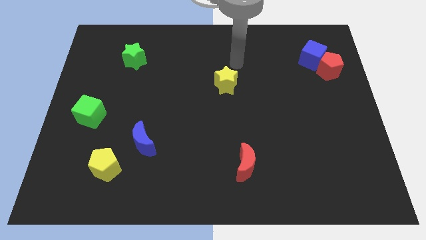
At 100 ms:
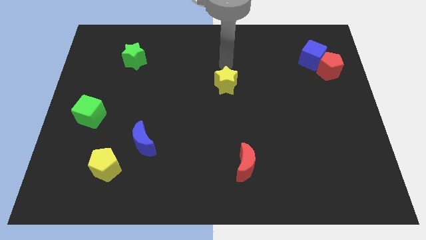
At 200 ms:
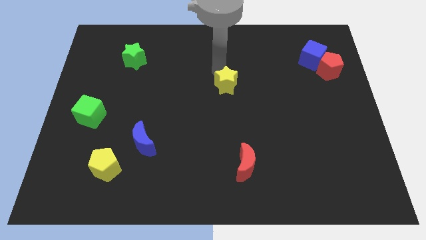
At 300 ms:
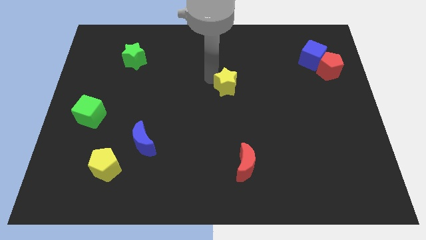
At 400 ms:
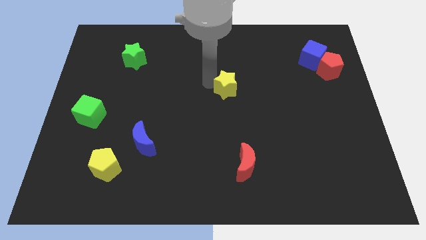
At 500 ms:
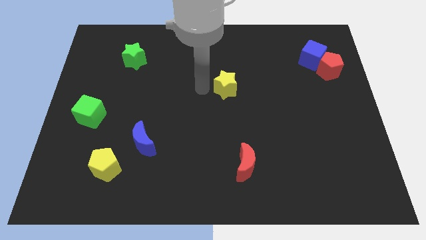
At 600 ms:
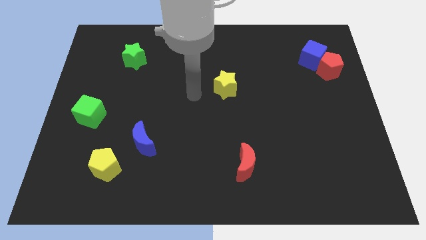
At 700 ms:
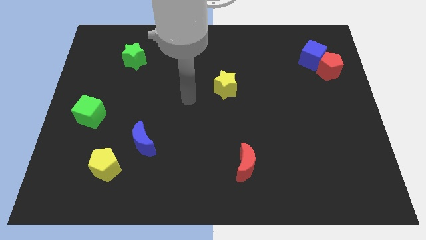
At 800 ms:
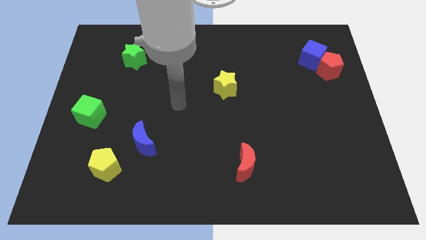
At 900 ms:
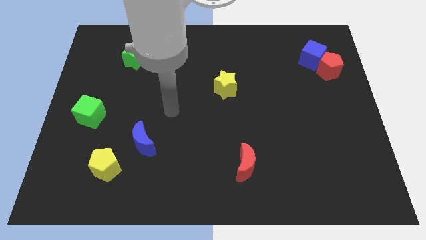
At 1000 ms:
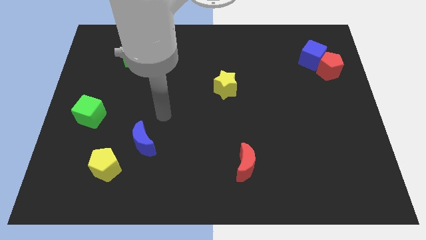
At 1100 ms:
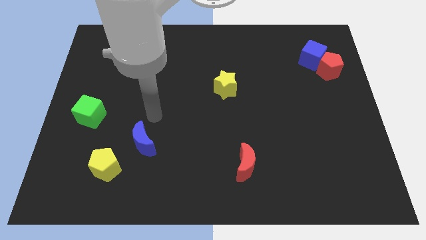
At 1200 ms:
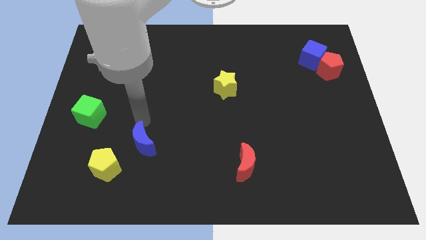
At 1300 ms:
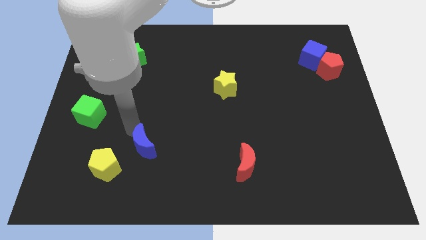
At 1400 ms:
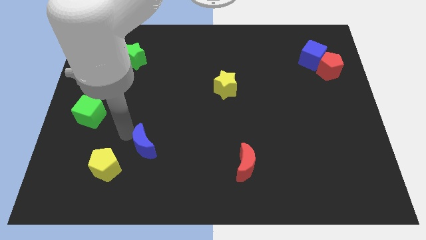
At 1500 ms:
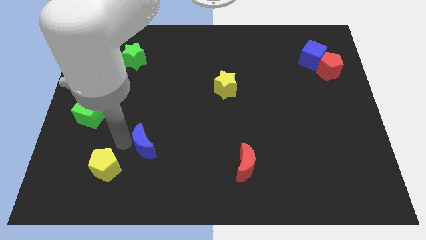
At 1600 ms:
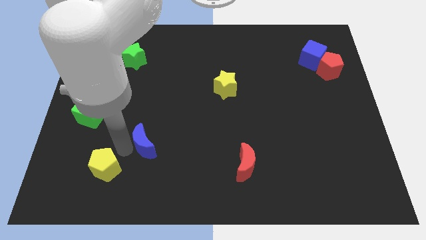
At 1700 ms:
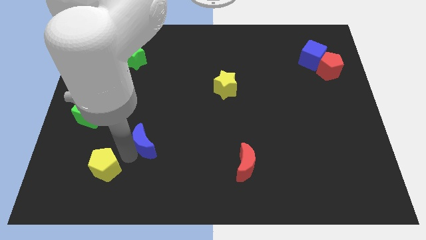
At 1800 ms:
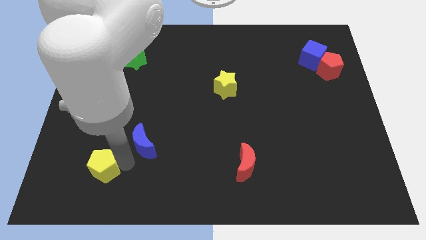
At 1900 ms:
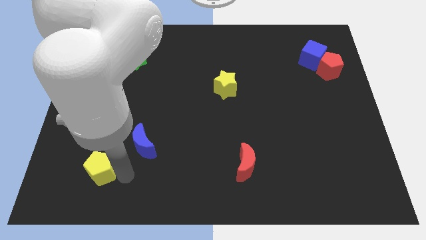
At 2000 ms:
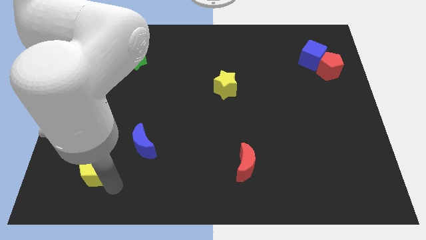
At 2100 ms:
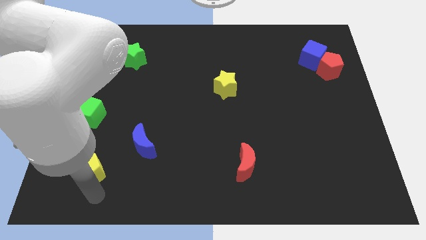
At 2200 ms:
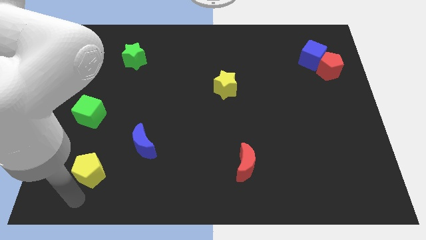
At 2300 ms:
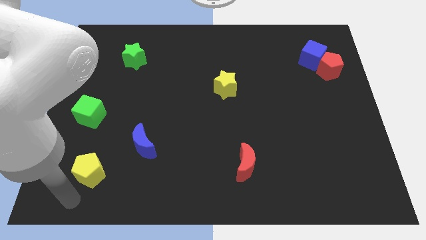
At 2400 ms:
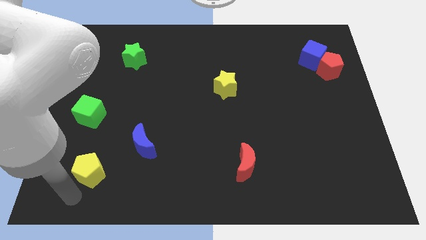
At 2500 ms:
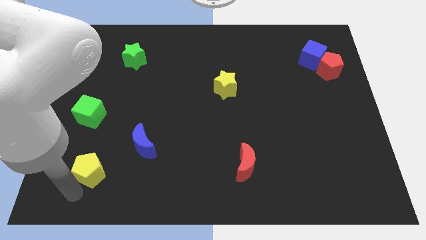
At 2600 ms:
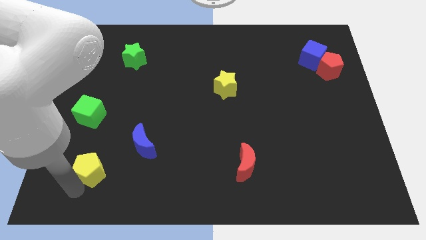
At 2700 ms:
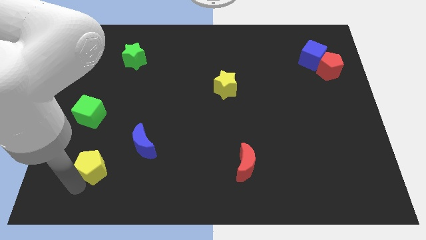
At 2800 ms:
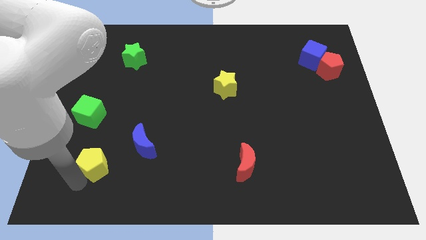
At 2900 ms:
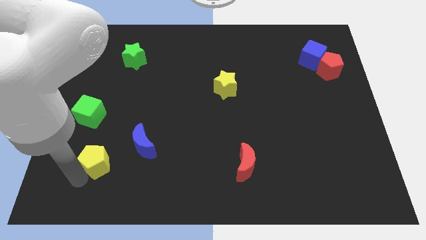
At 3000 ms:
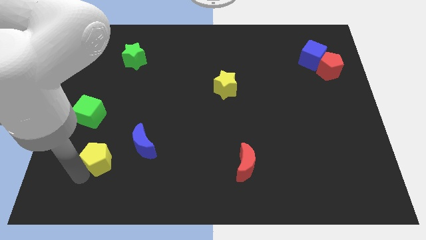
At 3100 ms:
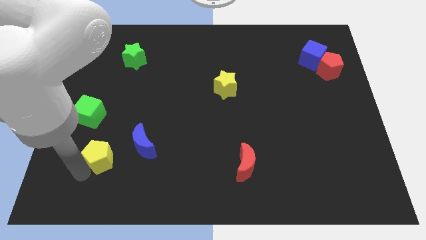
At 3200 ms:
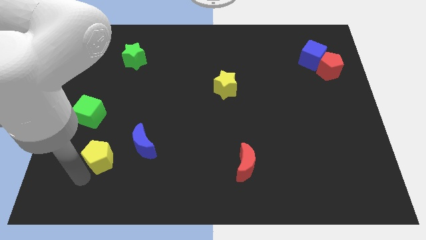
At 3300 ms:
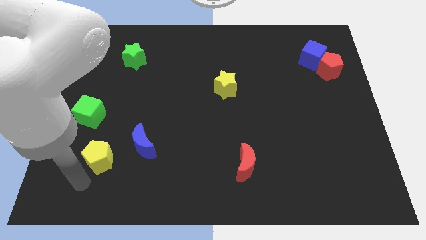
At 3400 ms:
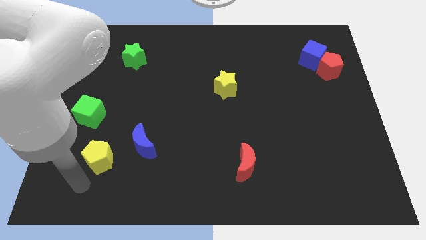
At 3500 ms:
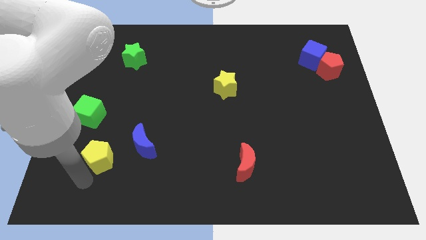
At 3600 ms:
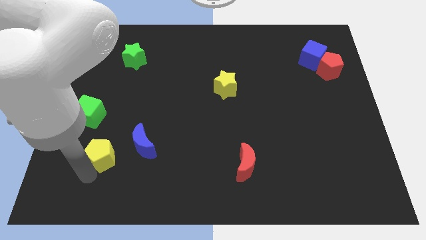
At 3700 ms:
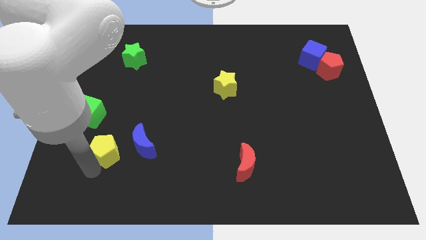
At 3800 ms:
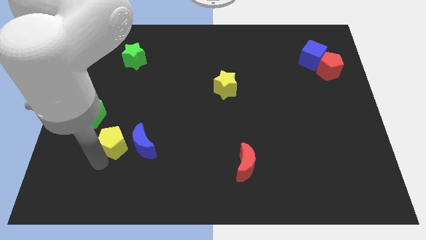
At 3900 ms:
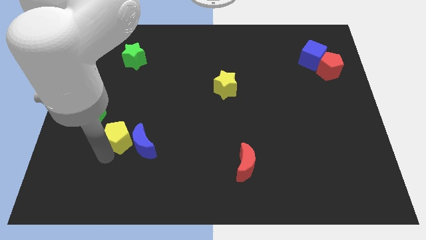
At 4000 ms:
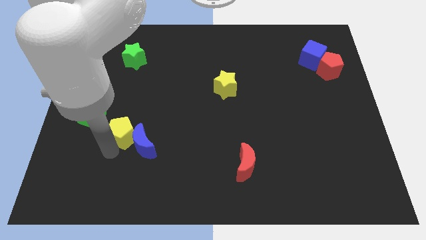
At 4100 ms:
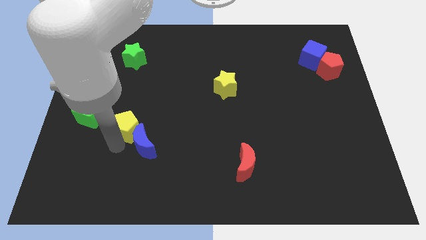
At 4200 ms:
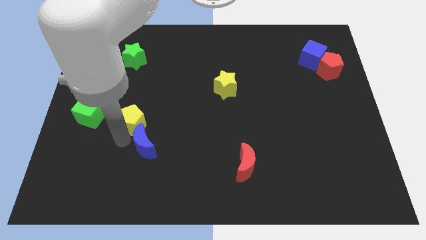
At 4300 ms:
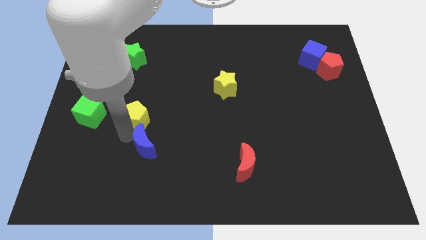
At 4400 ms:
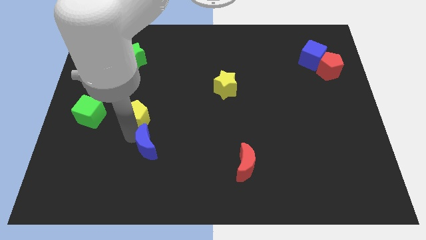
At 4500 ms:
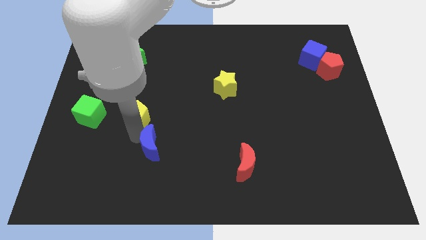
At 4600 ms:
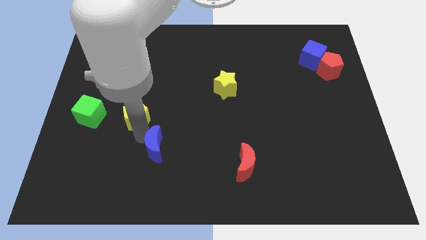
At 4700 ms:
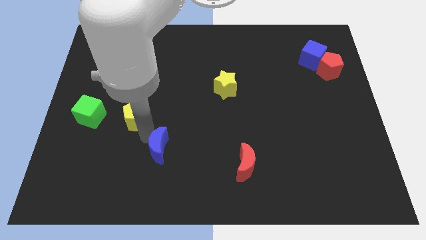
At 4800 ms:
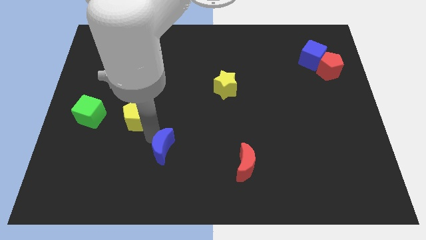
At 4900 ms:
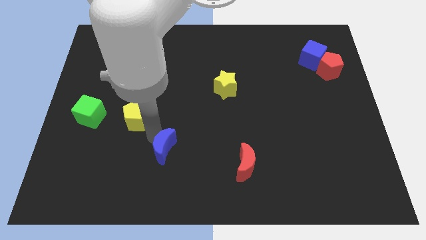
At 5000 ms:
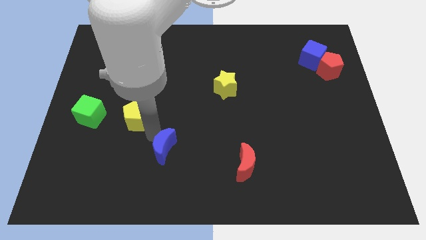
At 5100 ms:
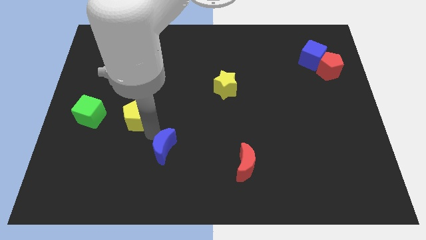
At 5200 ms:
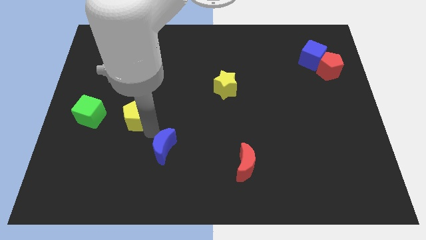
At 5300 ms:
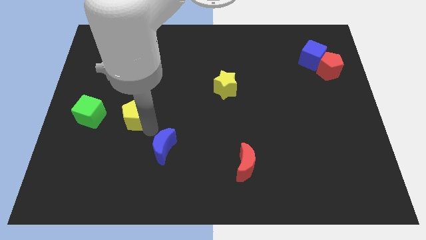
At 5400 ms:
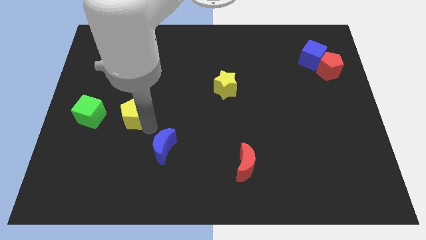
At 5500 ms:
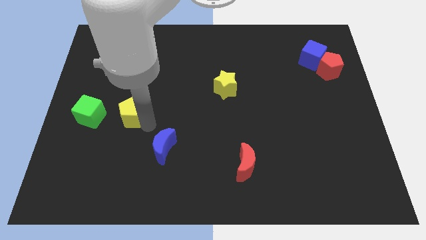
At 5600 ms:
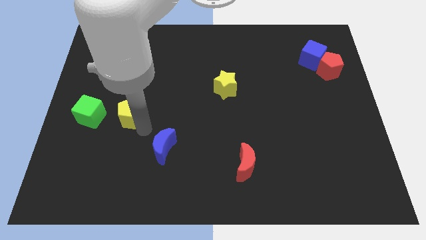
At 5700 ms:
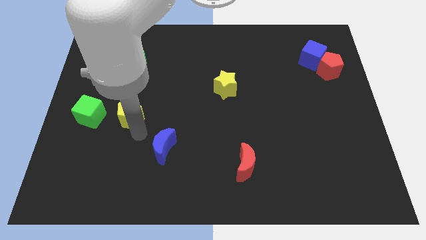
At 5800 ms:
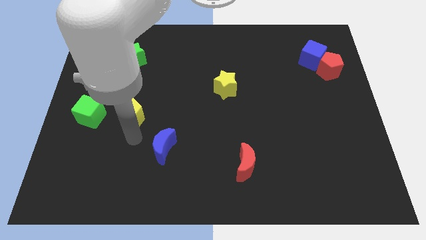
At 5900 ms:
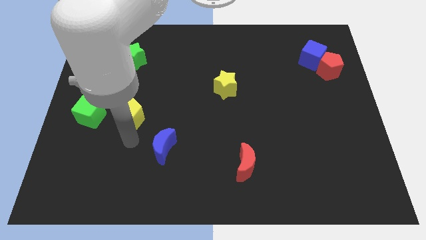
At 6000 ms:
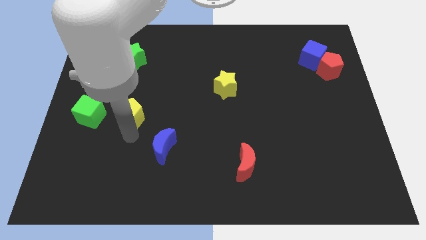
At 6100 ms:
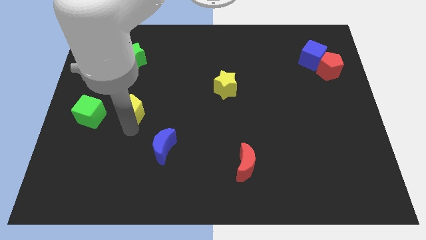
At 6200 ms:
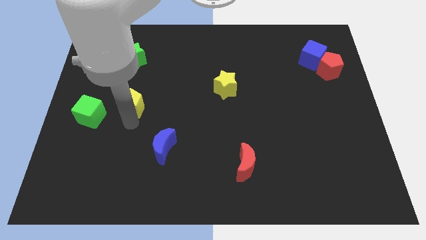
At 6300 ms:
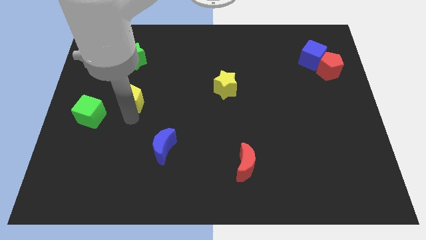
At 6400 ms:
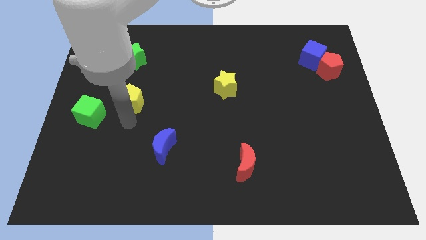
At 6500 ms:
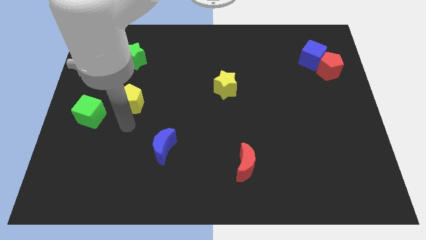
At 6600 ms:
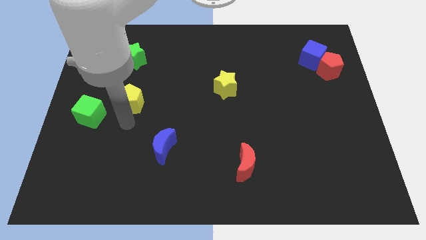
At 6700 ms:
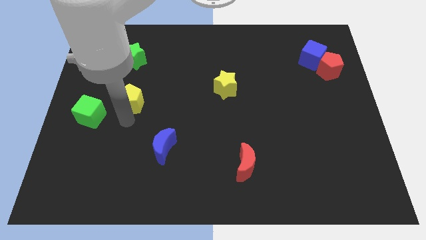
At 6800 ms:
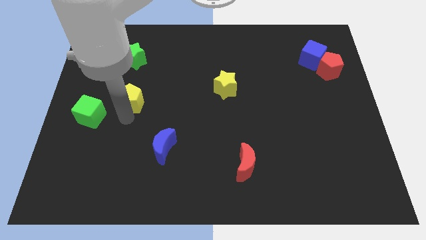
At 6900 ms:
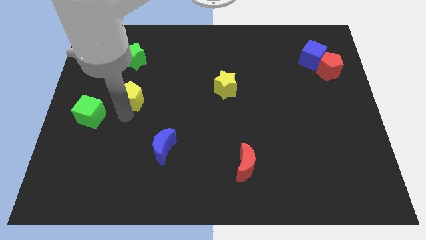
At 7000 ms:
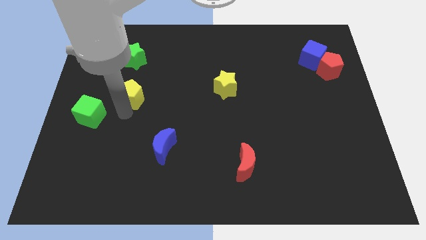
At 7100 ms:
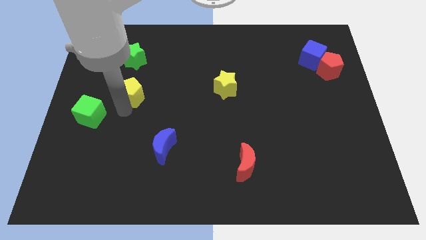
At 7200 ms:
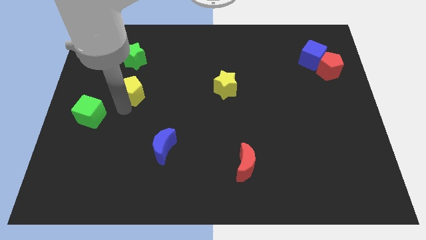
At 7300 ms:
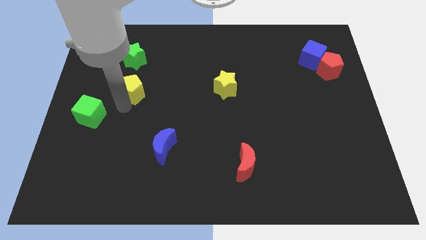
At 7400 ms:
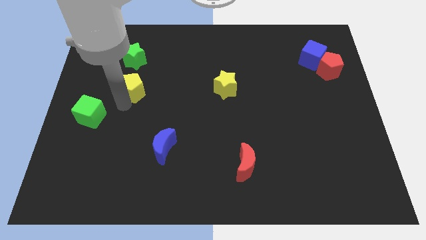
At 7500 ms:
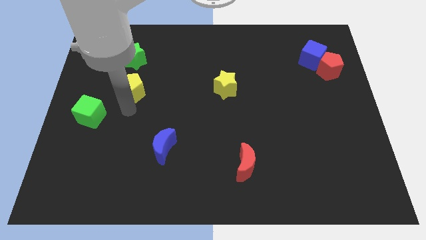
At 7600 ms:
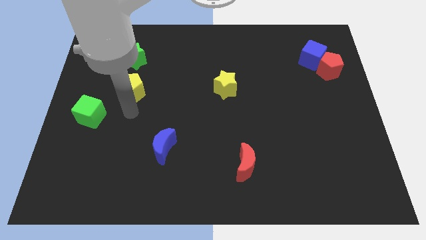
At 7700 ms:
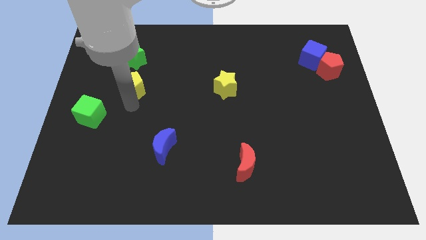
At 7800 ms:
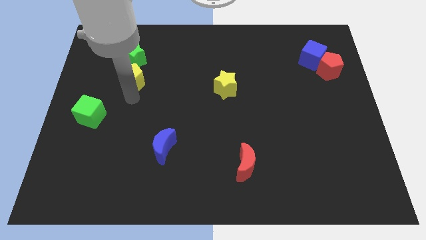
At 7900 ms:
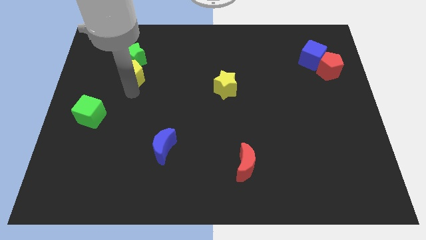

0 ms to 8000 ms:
push the yellow pentagon to the green star
